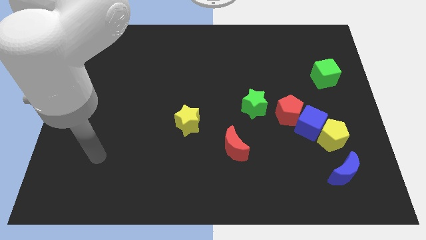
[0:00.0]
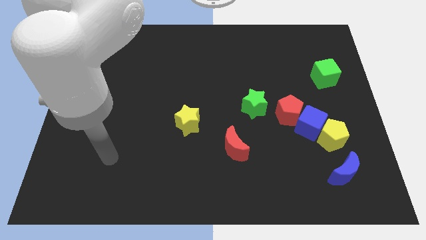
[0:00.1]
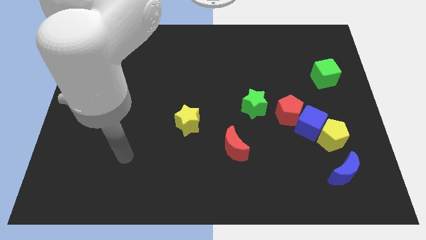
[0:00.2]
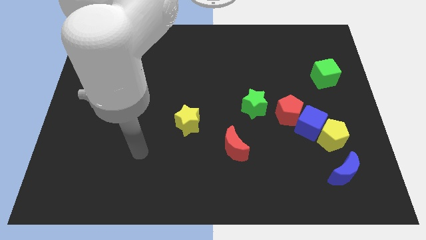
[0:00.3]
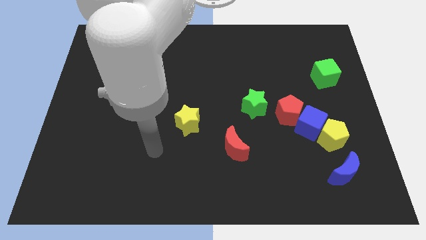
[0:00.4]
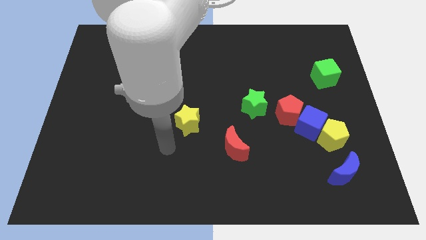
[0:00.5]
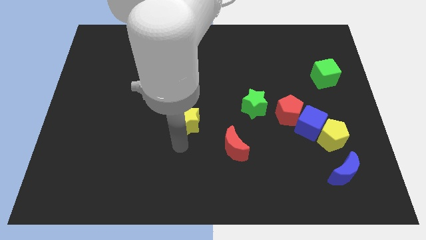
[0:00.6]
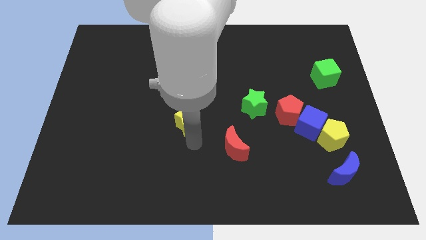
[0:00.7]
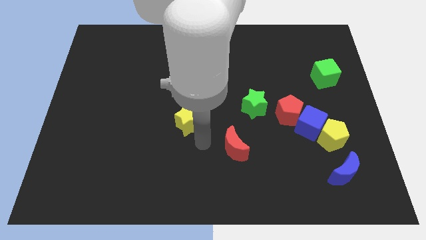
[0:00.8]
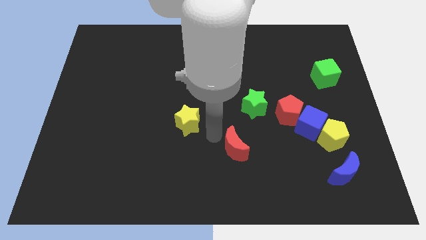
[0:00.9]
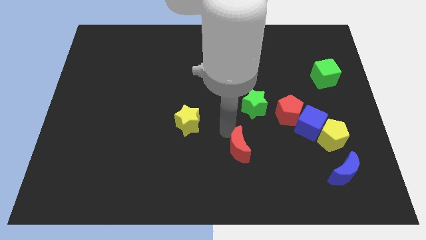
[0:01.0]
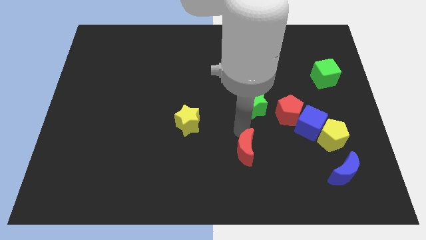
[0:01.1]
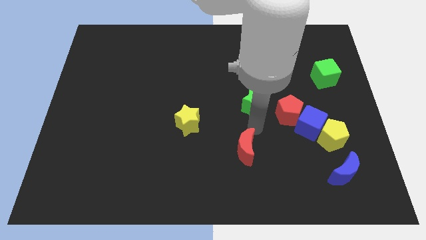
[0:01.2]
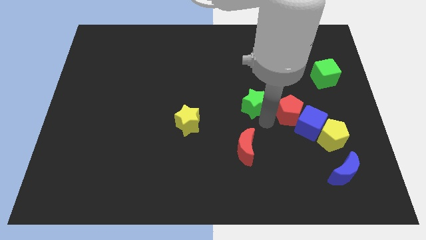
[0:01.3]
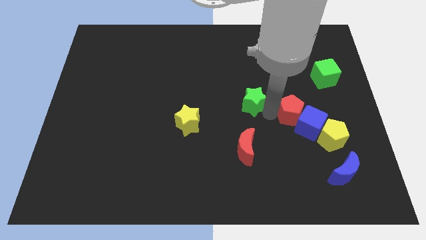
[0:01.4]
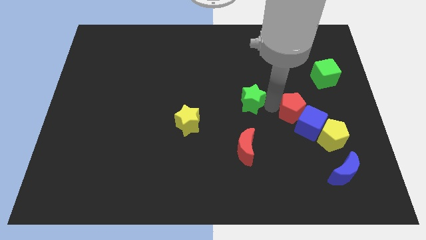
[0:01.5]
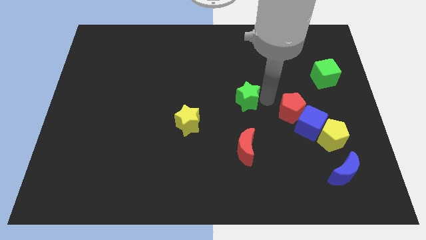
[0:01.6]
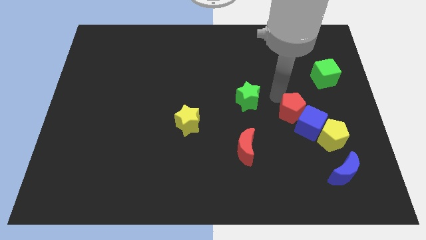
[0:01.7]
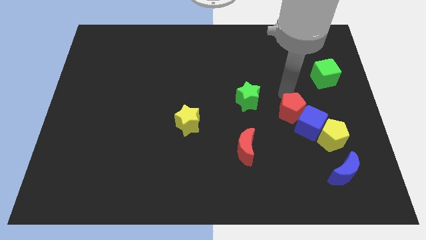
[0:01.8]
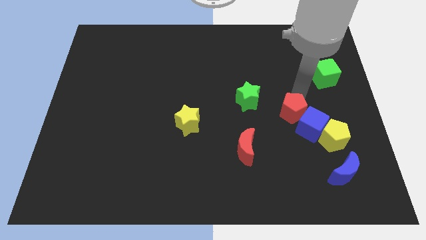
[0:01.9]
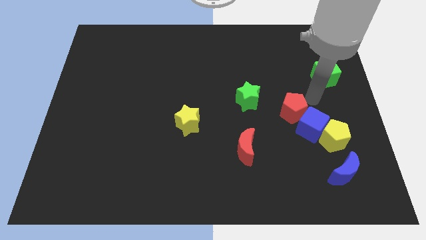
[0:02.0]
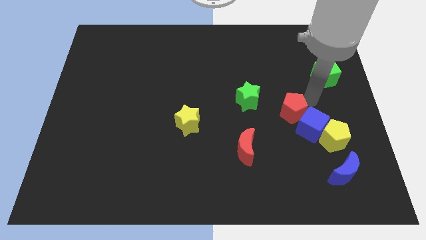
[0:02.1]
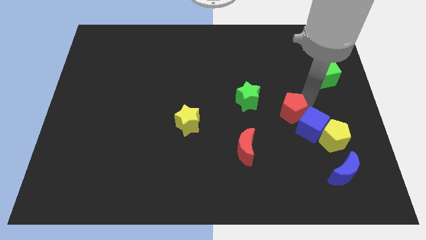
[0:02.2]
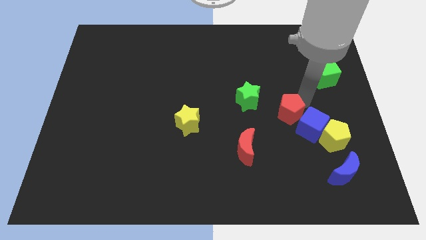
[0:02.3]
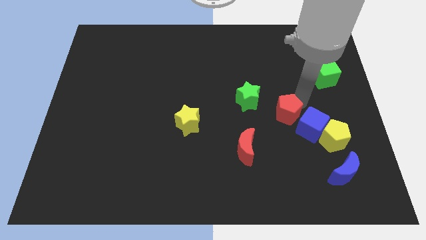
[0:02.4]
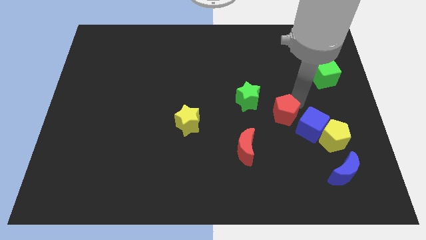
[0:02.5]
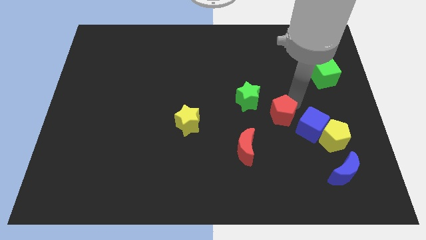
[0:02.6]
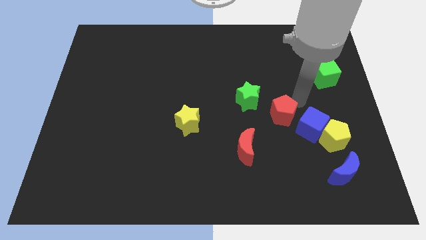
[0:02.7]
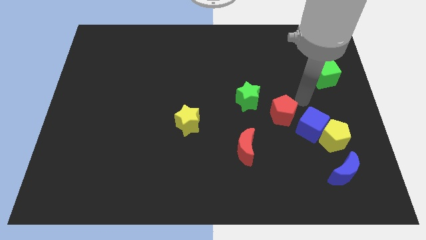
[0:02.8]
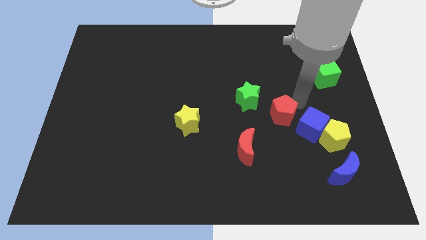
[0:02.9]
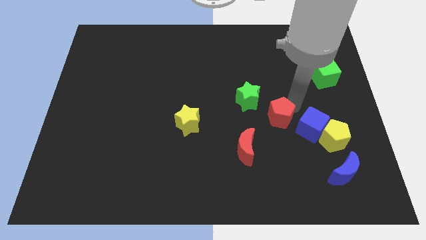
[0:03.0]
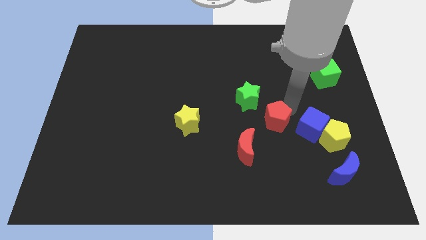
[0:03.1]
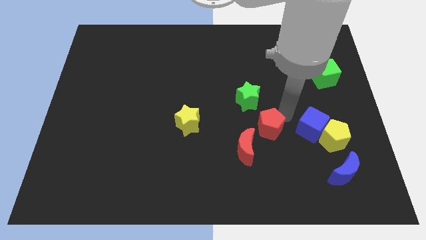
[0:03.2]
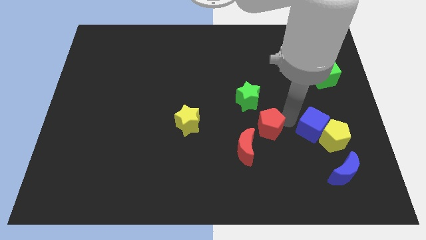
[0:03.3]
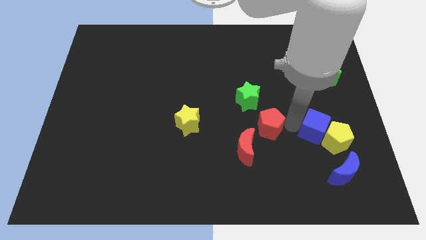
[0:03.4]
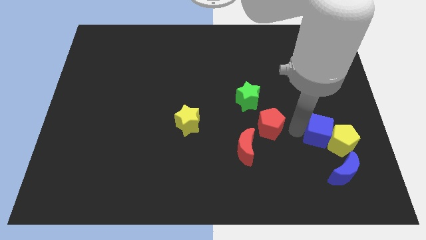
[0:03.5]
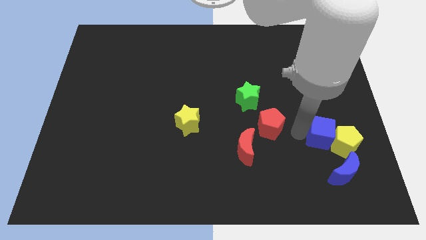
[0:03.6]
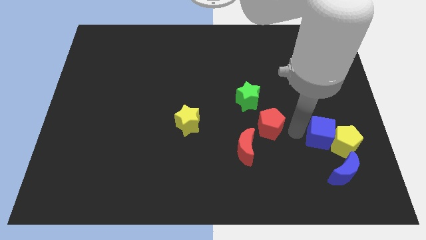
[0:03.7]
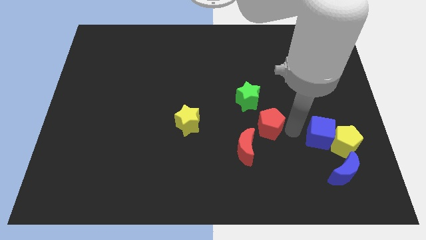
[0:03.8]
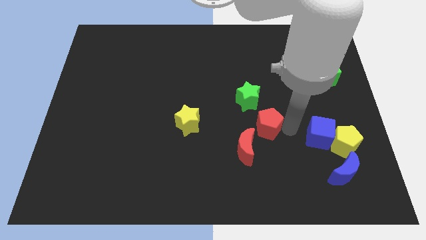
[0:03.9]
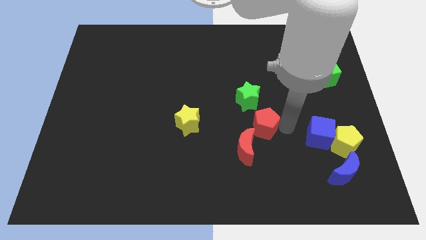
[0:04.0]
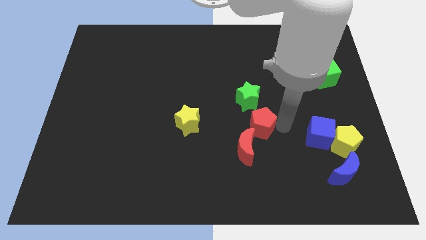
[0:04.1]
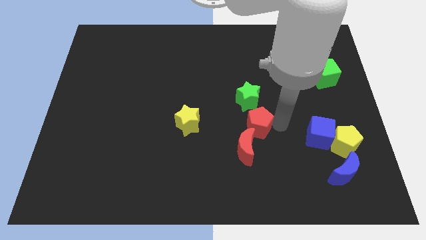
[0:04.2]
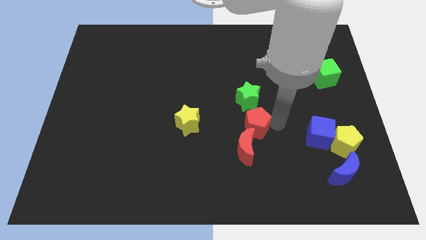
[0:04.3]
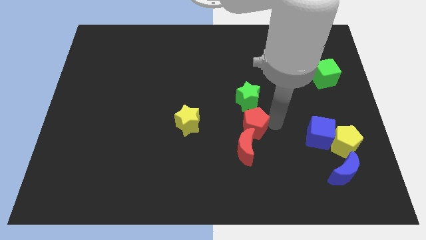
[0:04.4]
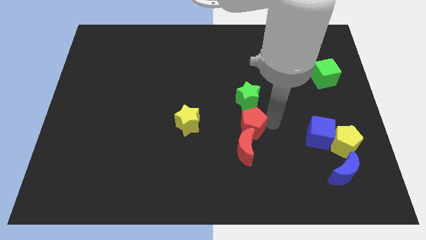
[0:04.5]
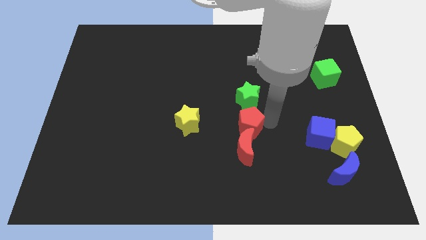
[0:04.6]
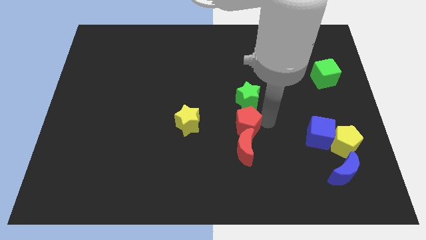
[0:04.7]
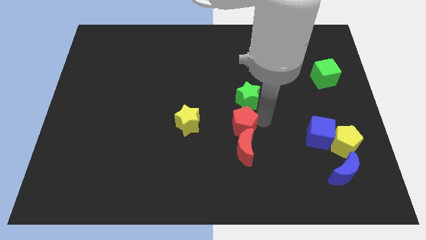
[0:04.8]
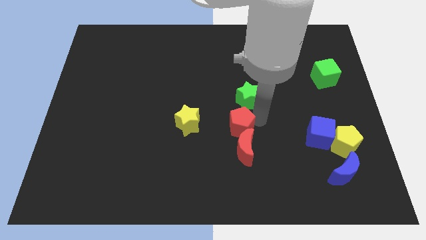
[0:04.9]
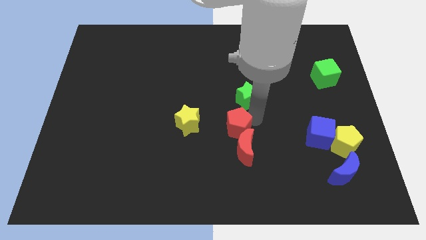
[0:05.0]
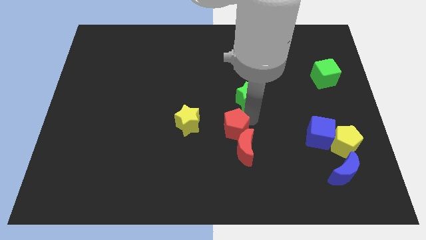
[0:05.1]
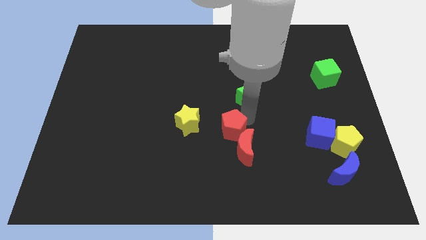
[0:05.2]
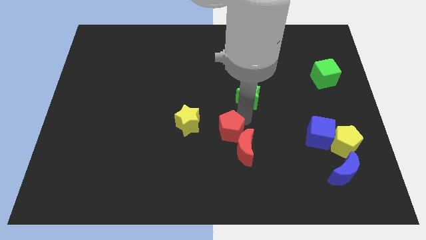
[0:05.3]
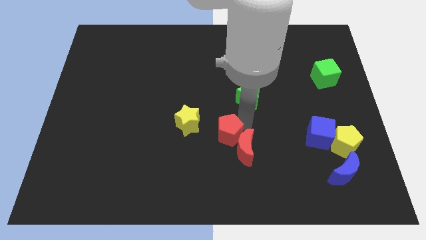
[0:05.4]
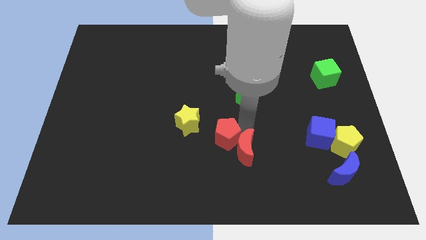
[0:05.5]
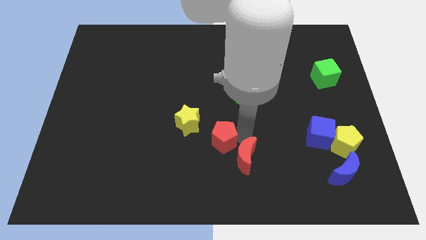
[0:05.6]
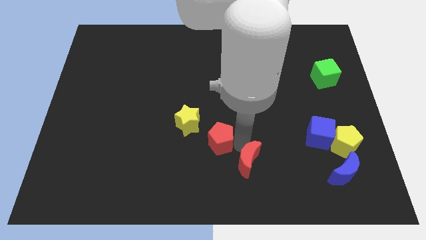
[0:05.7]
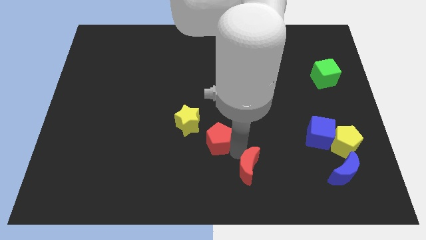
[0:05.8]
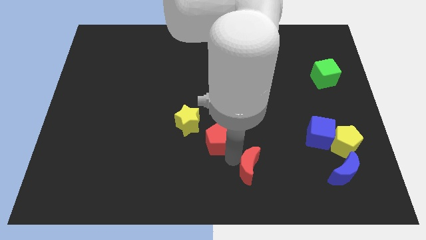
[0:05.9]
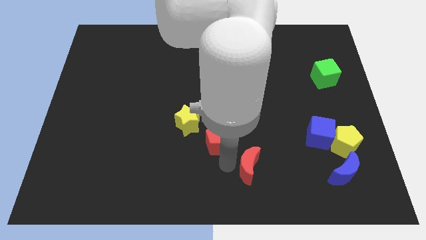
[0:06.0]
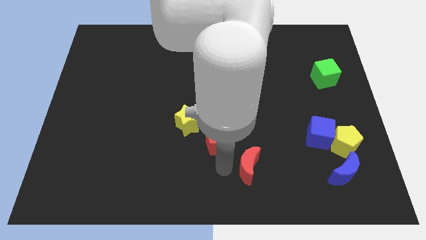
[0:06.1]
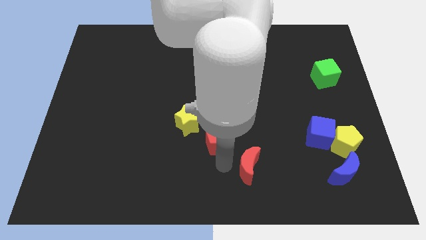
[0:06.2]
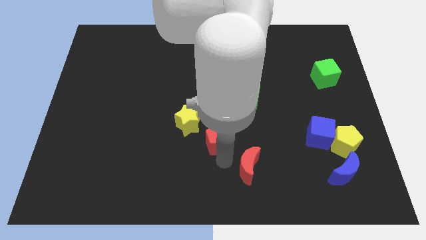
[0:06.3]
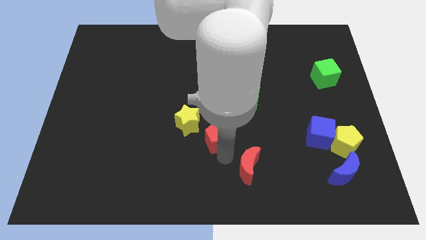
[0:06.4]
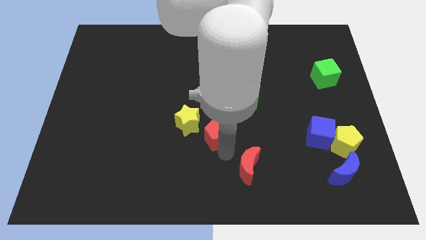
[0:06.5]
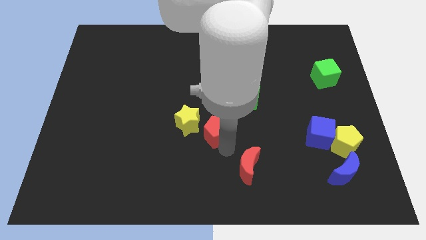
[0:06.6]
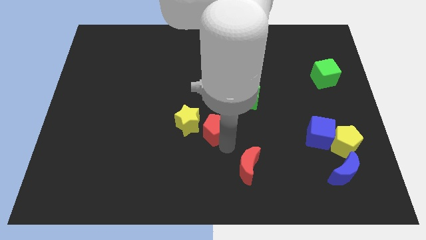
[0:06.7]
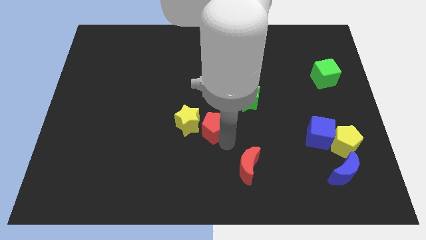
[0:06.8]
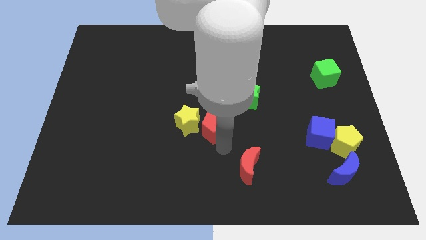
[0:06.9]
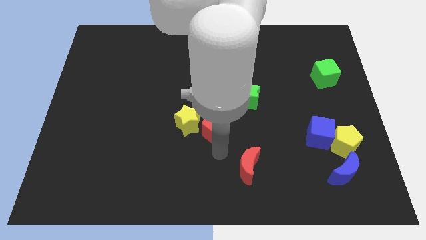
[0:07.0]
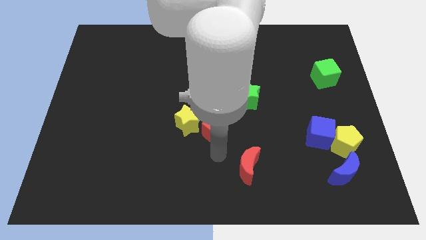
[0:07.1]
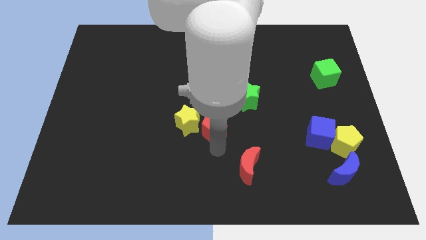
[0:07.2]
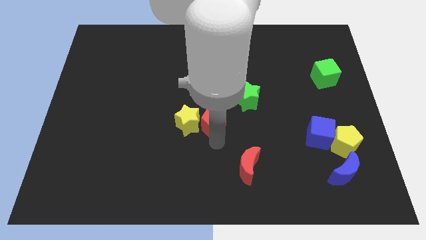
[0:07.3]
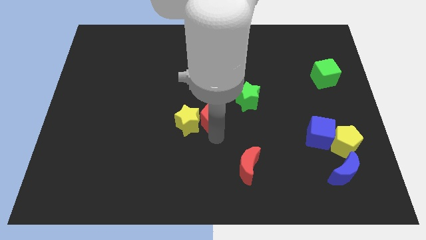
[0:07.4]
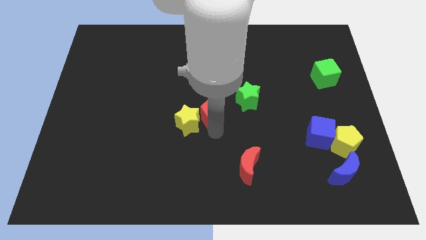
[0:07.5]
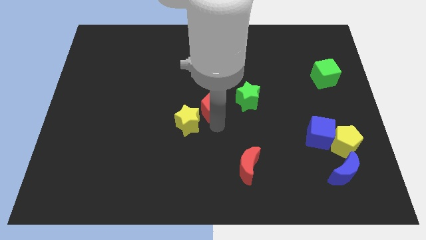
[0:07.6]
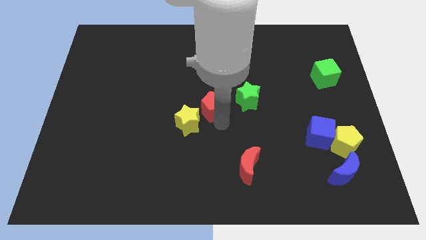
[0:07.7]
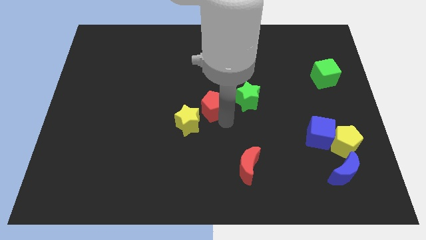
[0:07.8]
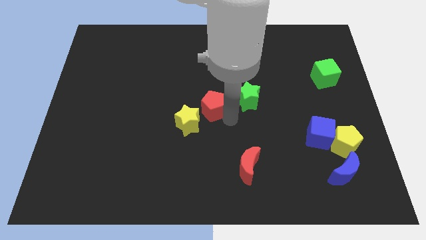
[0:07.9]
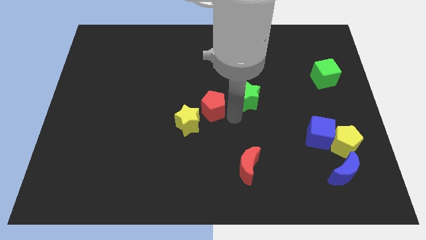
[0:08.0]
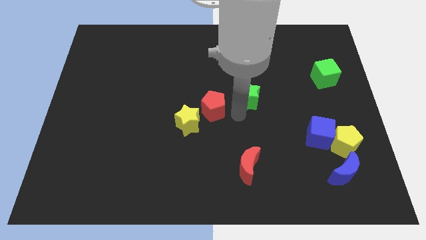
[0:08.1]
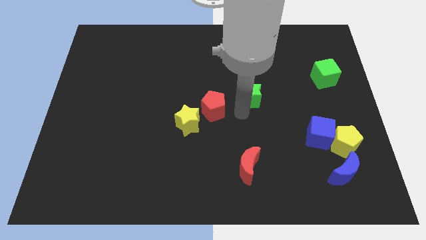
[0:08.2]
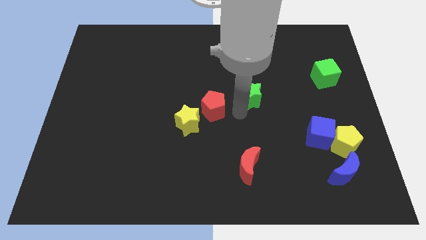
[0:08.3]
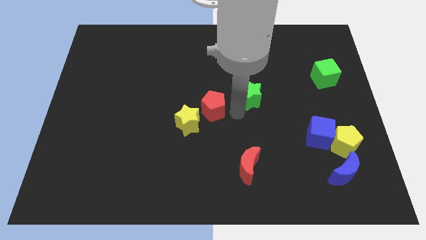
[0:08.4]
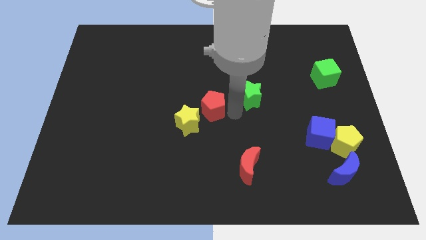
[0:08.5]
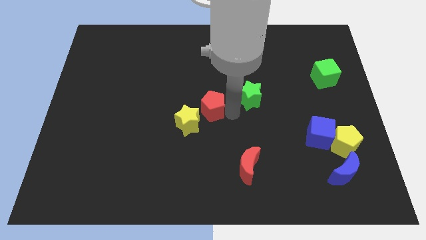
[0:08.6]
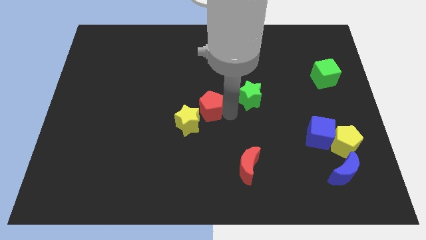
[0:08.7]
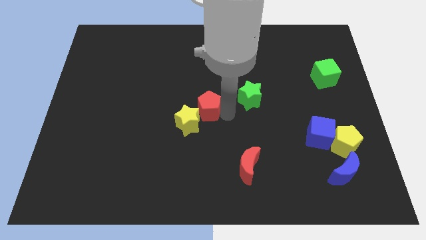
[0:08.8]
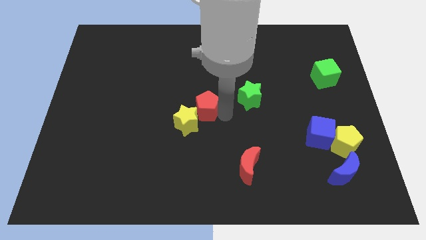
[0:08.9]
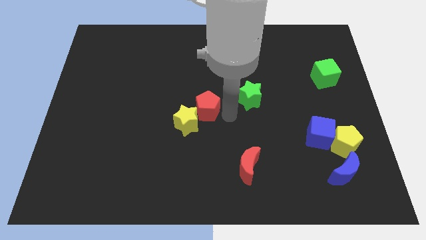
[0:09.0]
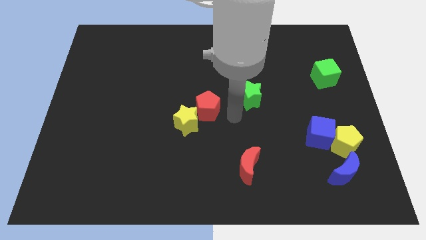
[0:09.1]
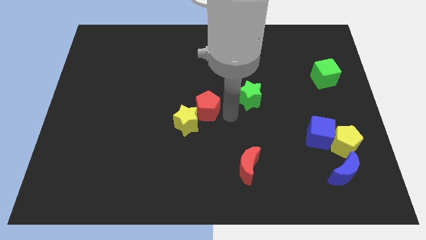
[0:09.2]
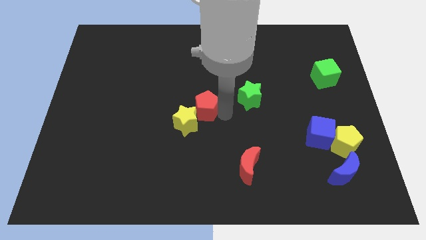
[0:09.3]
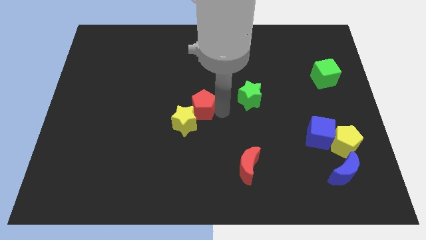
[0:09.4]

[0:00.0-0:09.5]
move the red pentagon left
